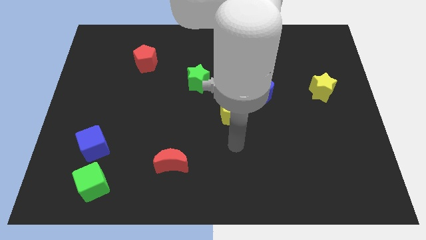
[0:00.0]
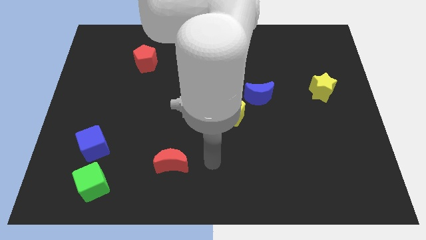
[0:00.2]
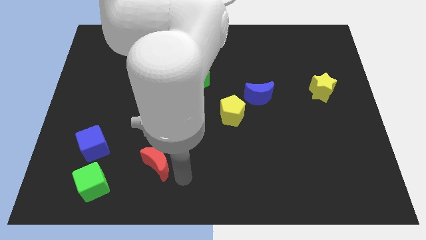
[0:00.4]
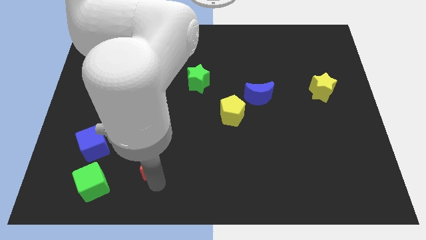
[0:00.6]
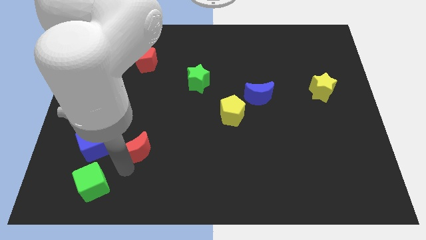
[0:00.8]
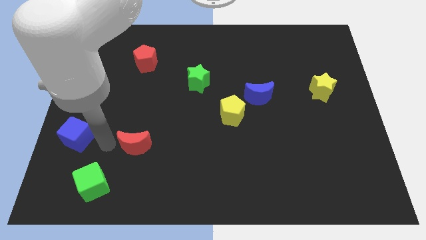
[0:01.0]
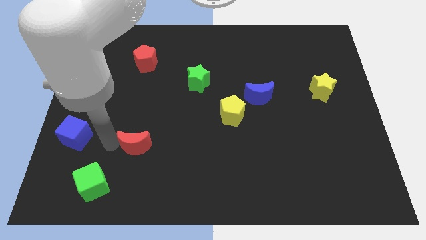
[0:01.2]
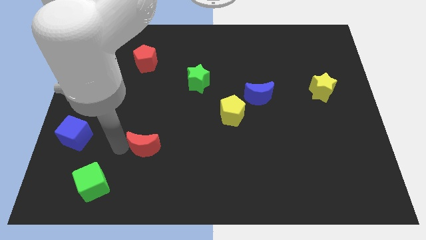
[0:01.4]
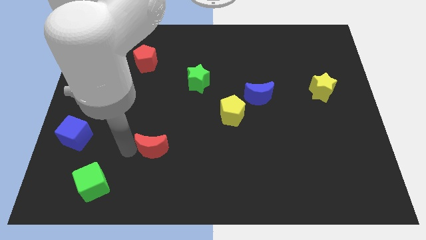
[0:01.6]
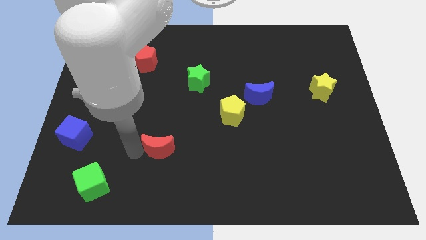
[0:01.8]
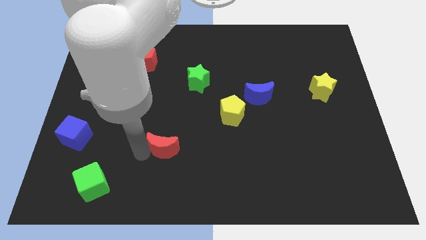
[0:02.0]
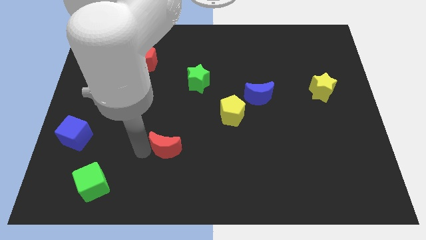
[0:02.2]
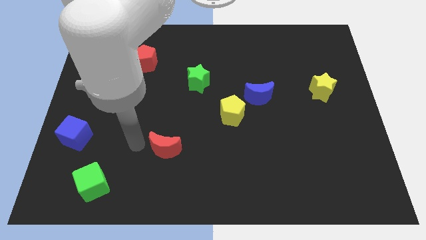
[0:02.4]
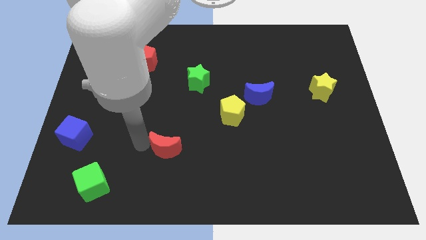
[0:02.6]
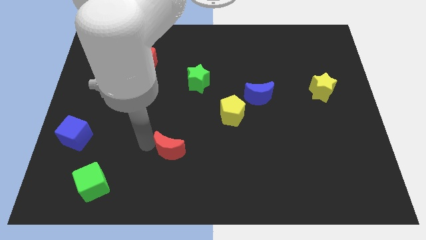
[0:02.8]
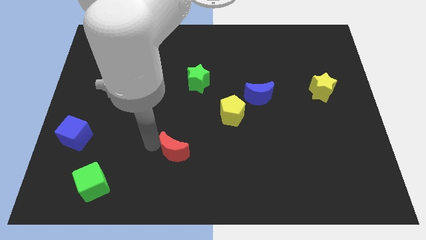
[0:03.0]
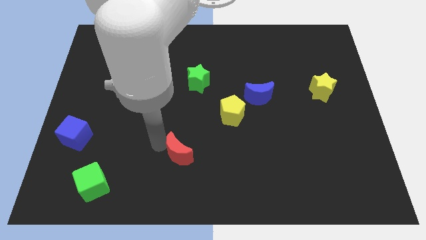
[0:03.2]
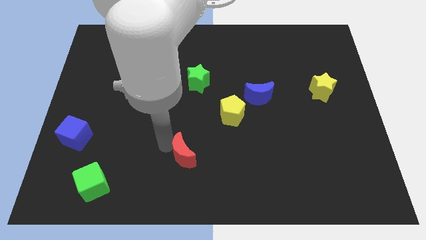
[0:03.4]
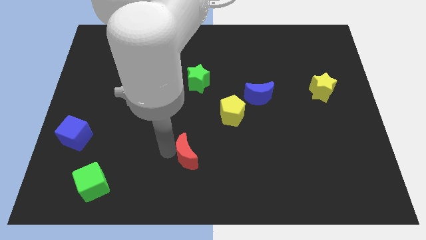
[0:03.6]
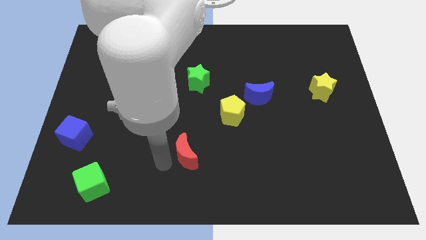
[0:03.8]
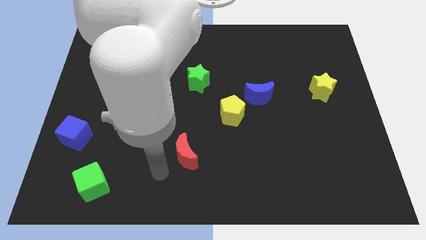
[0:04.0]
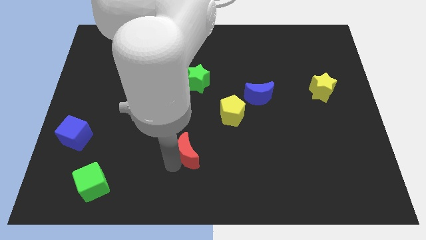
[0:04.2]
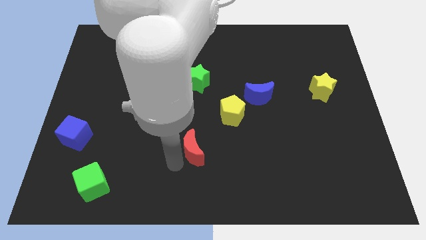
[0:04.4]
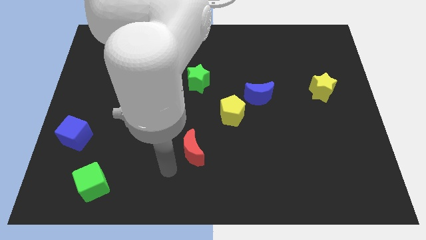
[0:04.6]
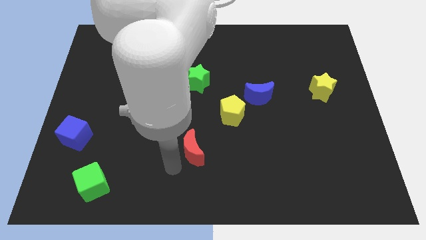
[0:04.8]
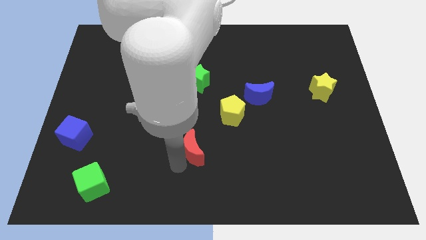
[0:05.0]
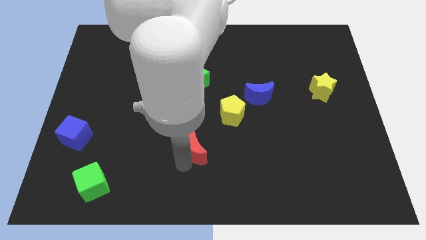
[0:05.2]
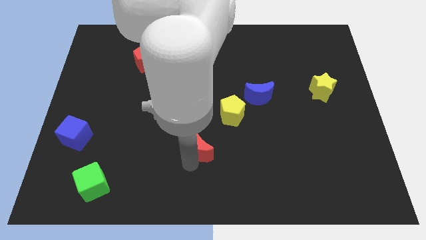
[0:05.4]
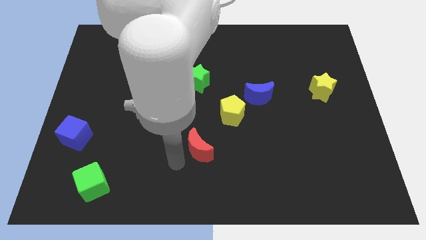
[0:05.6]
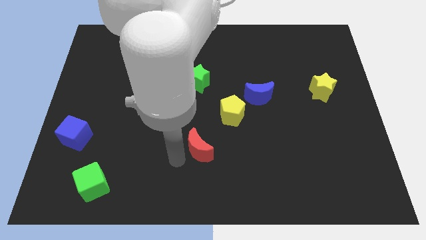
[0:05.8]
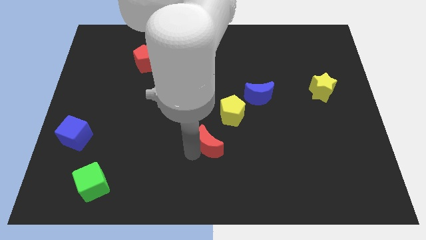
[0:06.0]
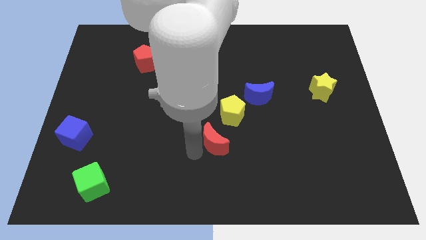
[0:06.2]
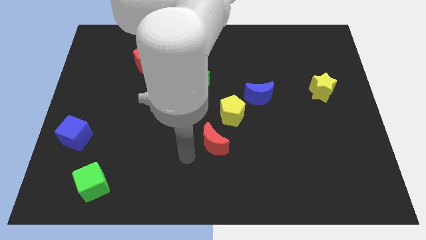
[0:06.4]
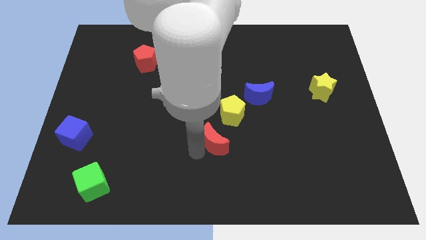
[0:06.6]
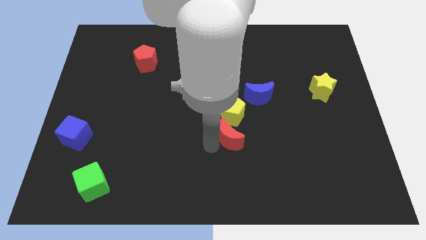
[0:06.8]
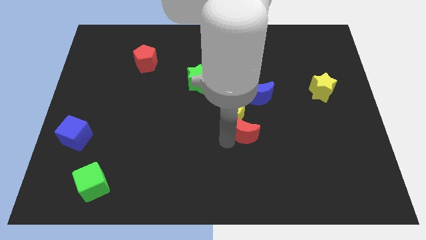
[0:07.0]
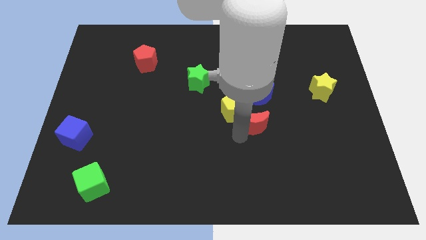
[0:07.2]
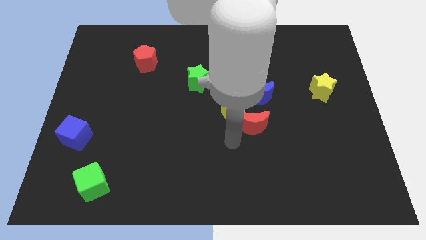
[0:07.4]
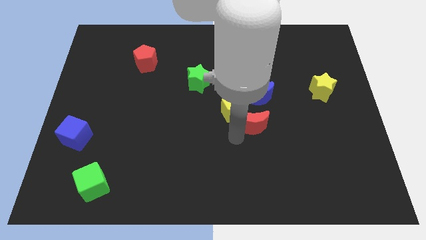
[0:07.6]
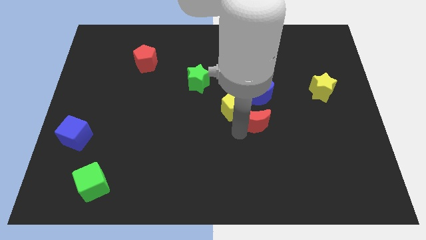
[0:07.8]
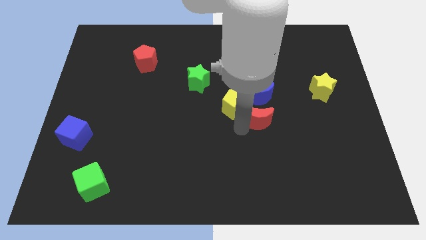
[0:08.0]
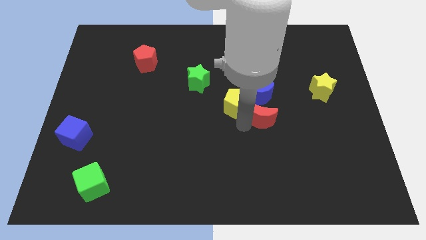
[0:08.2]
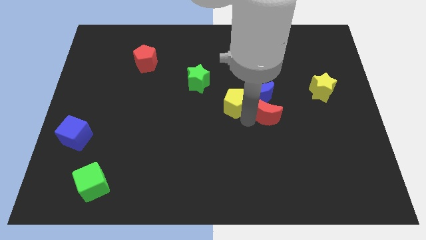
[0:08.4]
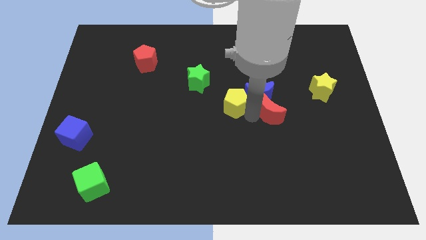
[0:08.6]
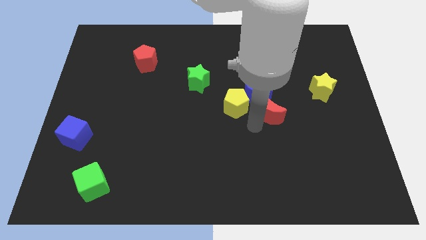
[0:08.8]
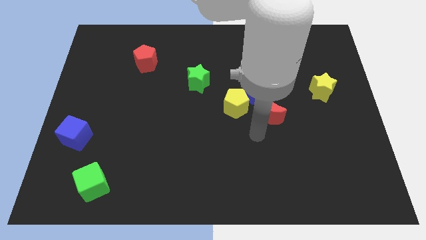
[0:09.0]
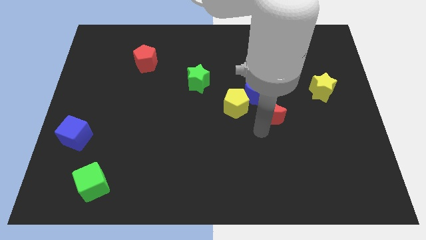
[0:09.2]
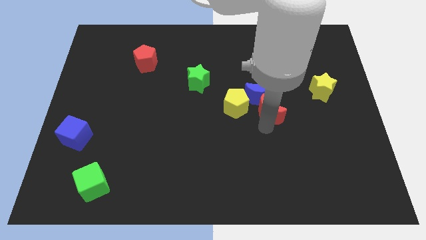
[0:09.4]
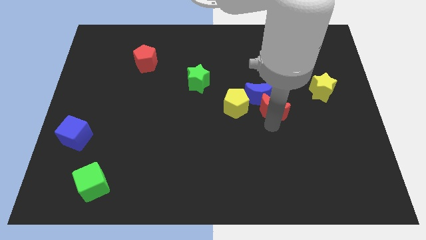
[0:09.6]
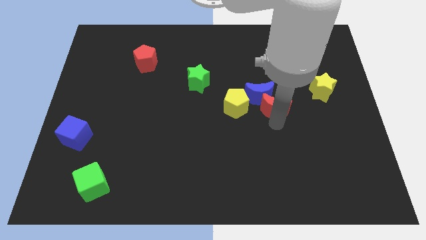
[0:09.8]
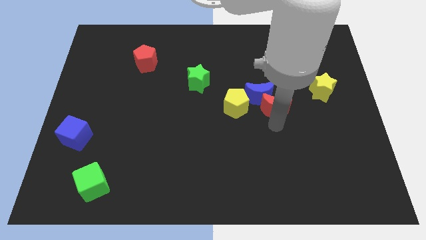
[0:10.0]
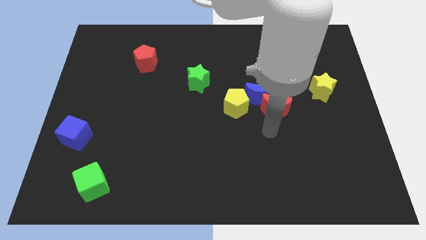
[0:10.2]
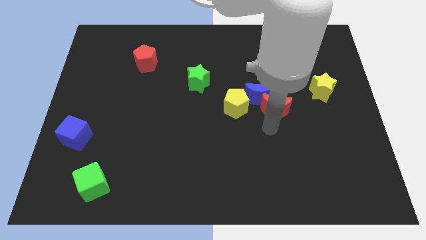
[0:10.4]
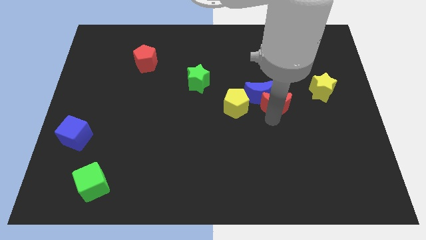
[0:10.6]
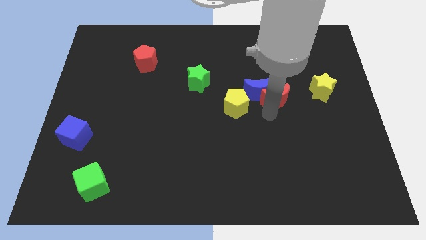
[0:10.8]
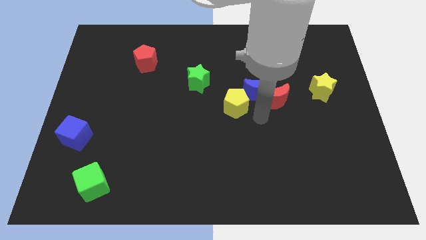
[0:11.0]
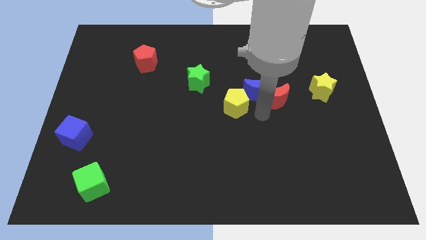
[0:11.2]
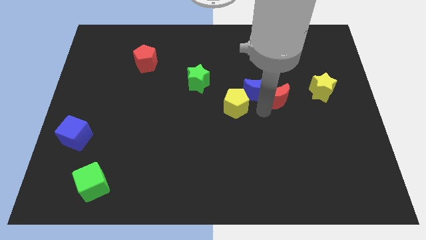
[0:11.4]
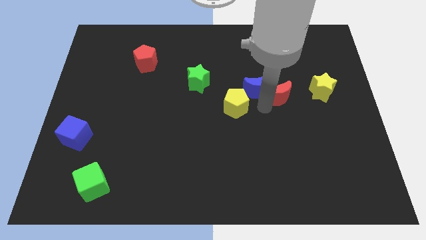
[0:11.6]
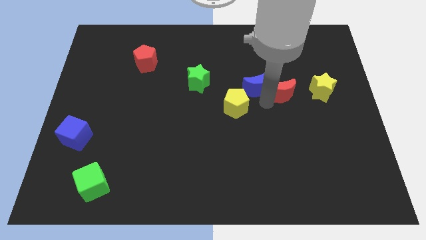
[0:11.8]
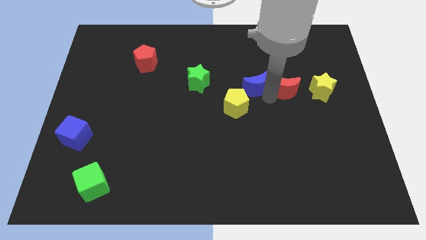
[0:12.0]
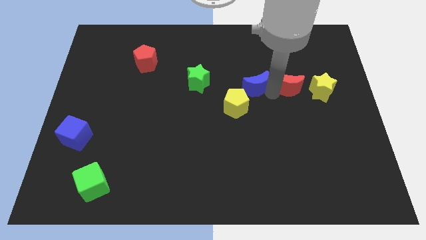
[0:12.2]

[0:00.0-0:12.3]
put the red moon to the top left side of the yellow star
